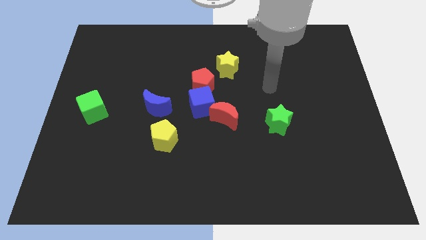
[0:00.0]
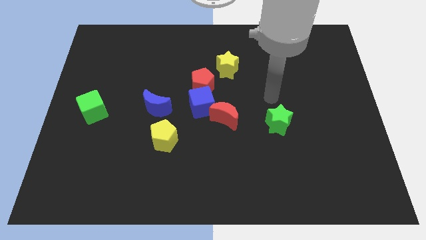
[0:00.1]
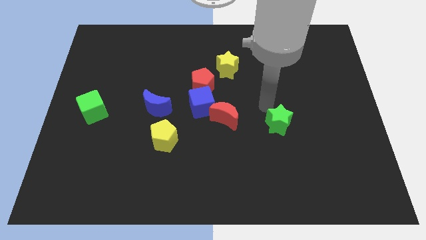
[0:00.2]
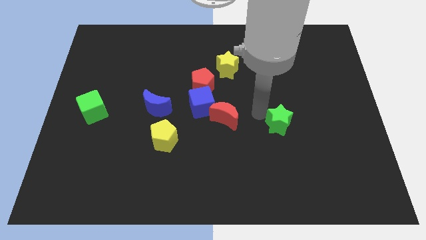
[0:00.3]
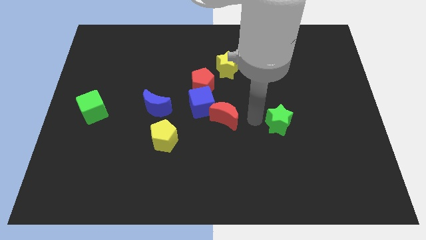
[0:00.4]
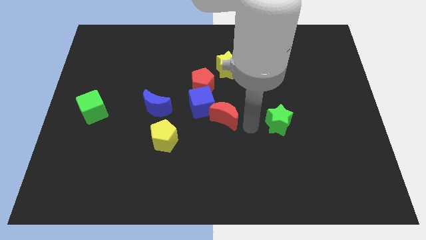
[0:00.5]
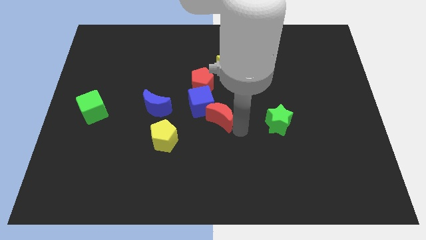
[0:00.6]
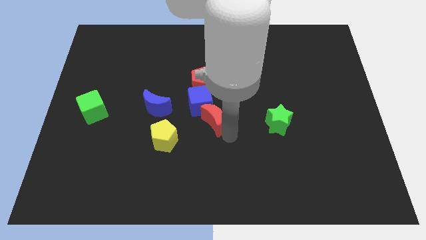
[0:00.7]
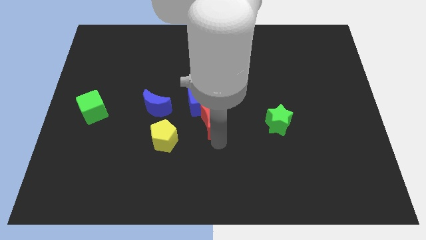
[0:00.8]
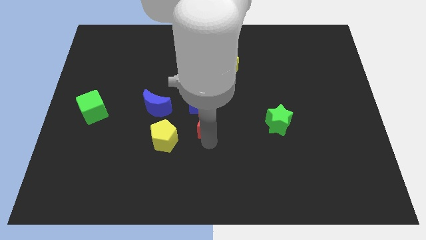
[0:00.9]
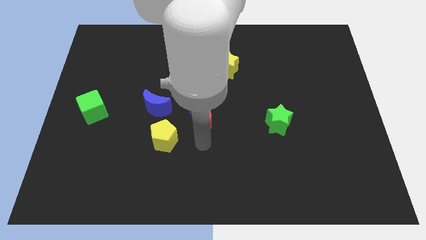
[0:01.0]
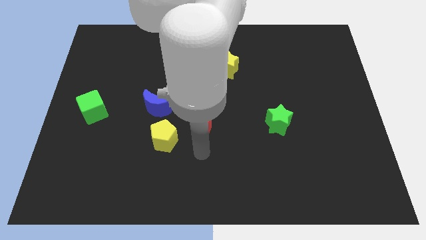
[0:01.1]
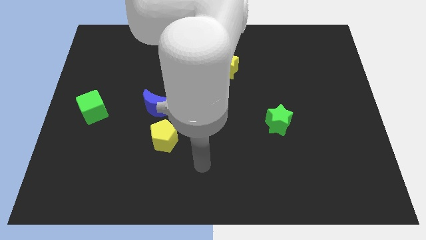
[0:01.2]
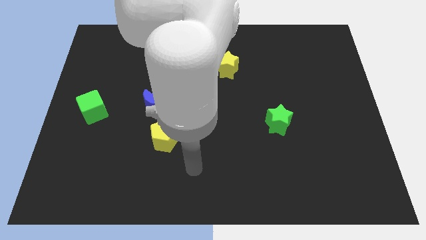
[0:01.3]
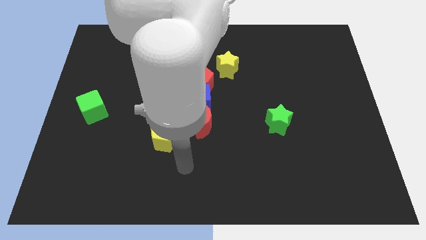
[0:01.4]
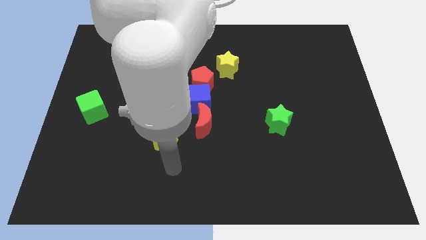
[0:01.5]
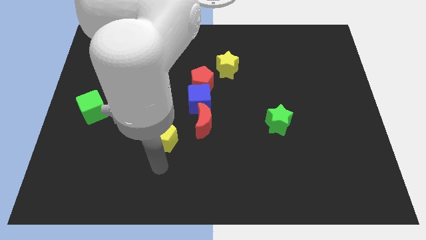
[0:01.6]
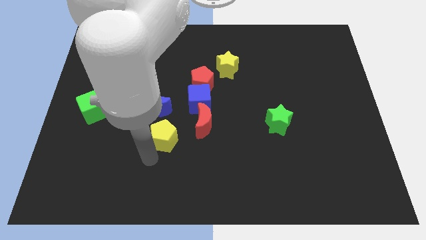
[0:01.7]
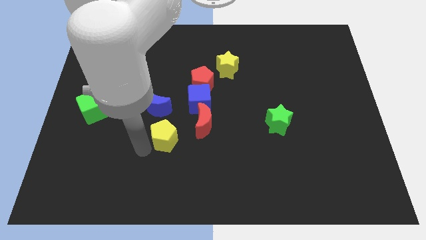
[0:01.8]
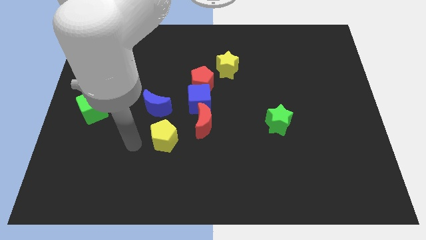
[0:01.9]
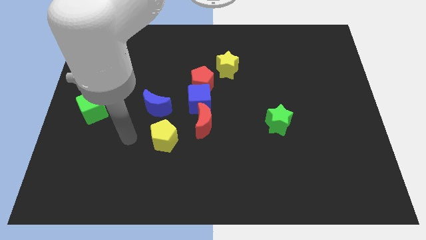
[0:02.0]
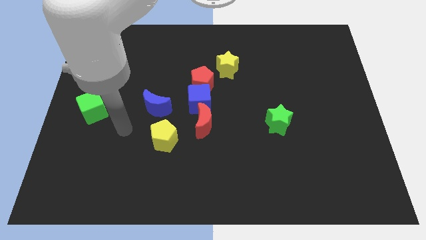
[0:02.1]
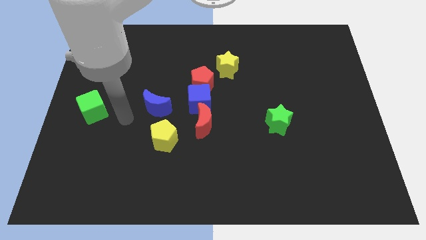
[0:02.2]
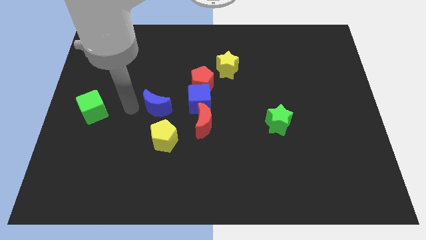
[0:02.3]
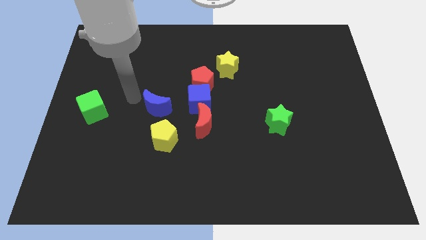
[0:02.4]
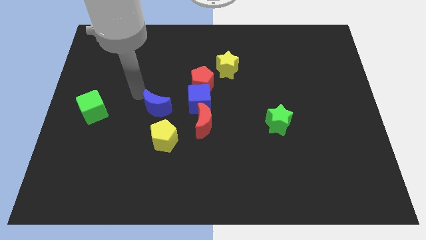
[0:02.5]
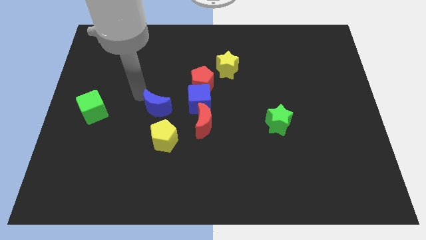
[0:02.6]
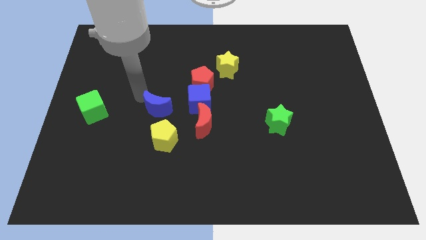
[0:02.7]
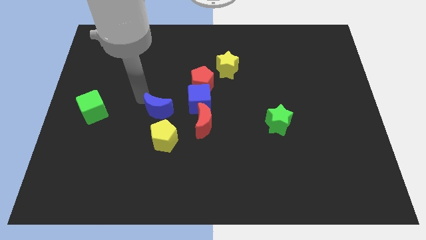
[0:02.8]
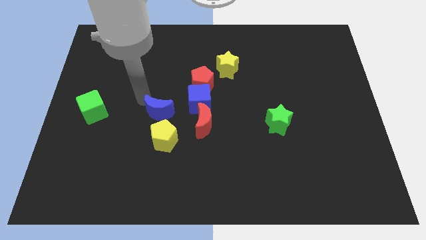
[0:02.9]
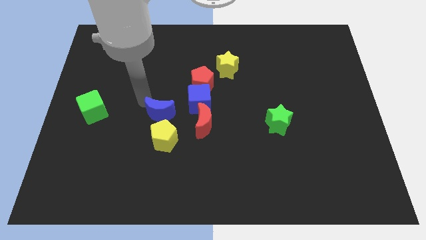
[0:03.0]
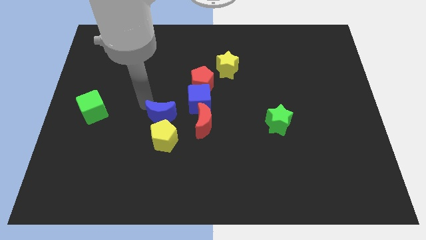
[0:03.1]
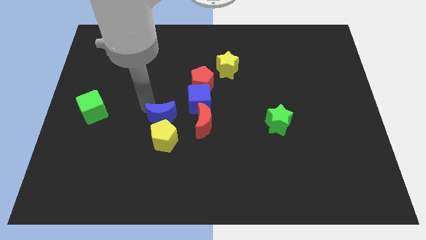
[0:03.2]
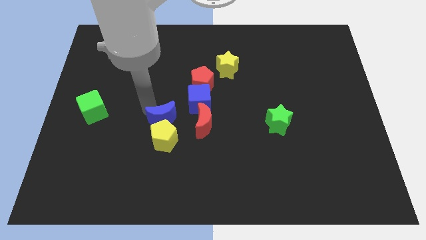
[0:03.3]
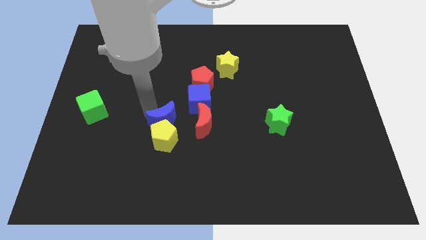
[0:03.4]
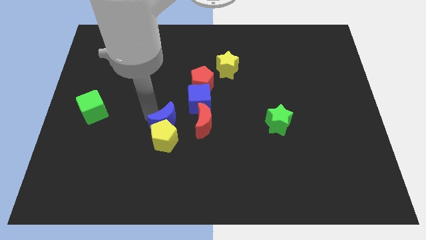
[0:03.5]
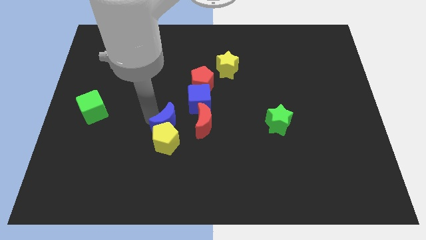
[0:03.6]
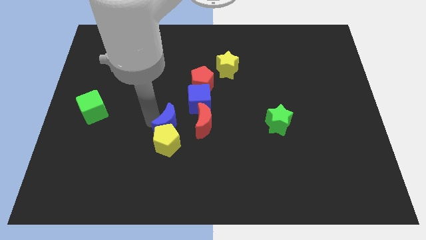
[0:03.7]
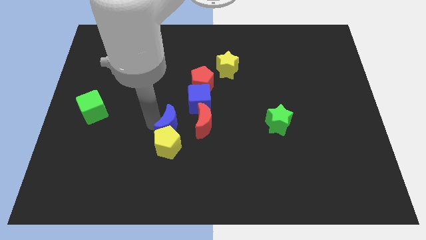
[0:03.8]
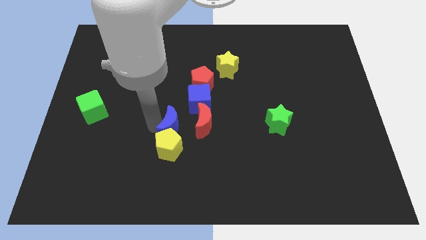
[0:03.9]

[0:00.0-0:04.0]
push the blue moon down and right a little bit

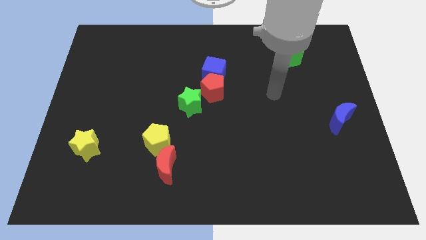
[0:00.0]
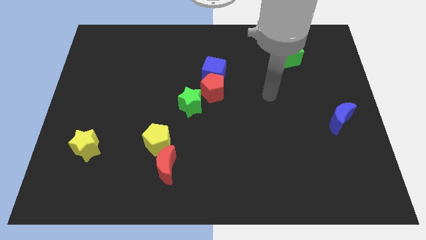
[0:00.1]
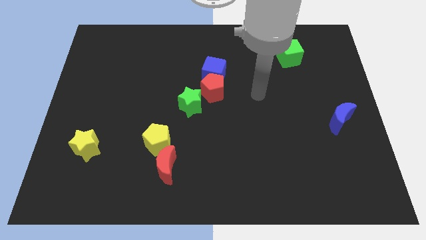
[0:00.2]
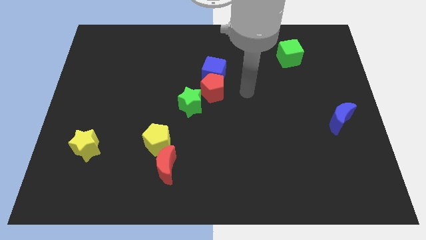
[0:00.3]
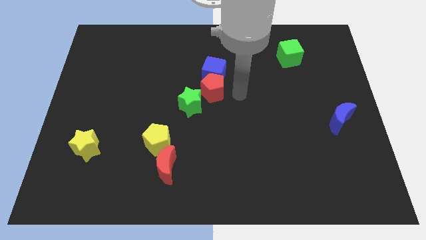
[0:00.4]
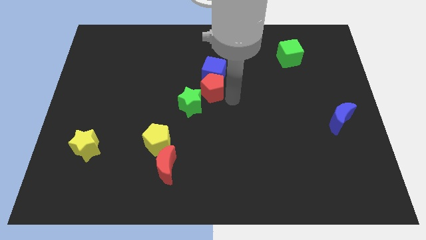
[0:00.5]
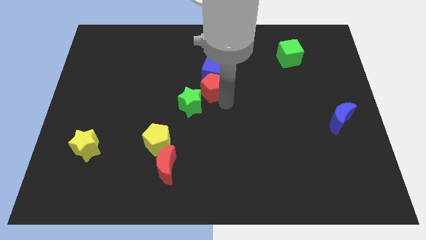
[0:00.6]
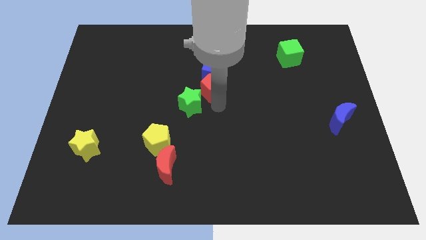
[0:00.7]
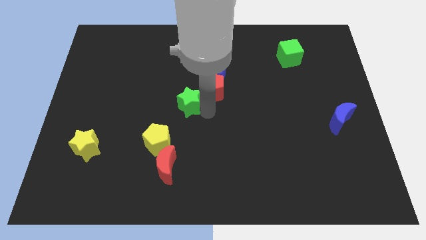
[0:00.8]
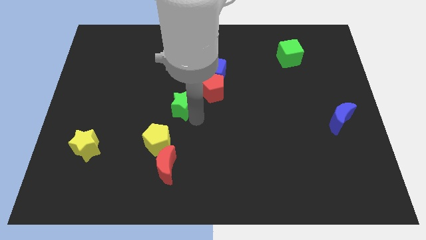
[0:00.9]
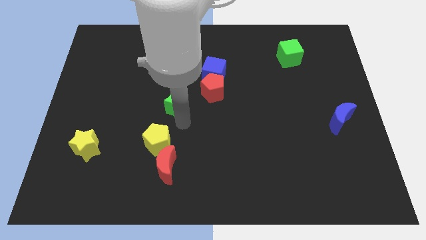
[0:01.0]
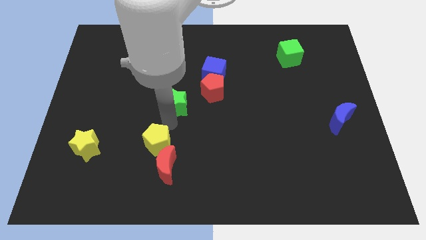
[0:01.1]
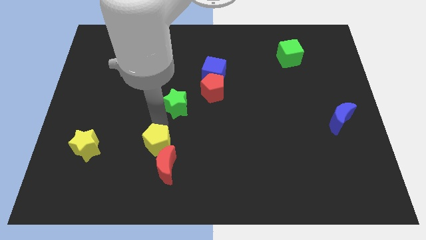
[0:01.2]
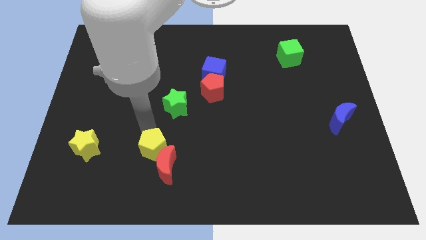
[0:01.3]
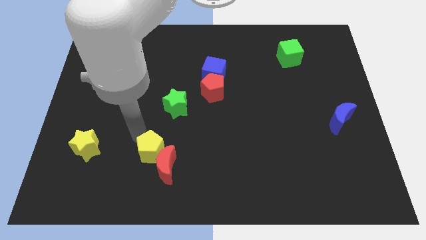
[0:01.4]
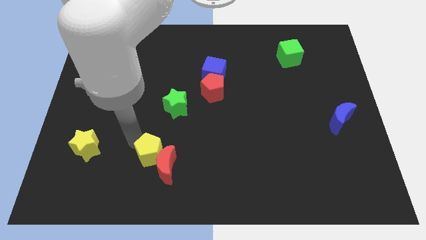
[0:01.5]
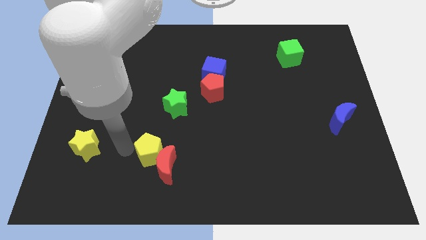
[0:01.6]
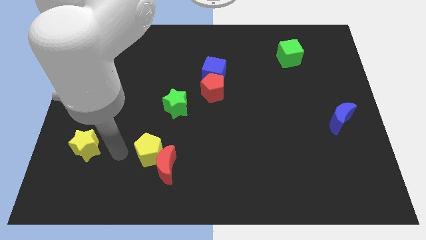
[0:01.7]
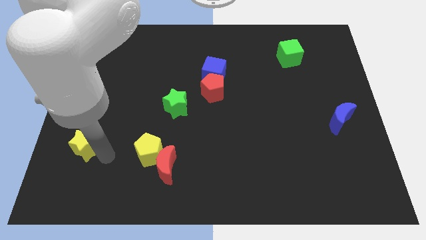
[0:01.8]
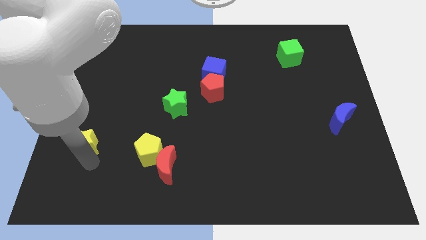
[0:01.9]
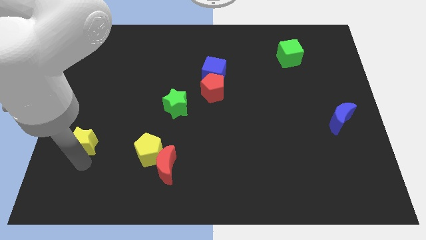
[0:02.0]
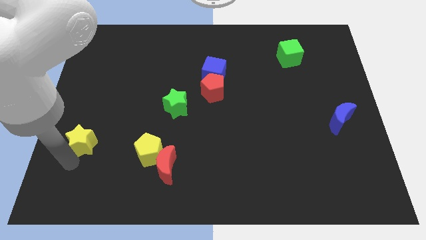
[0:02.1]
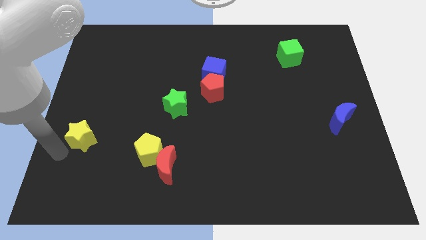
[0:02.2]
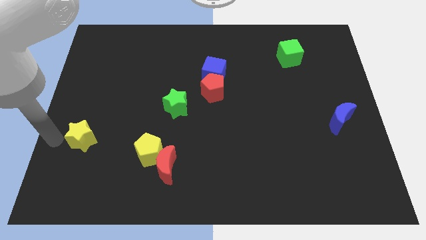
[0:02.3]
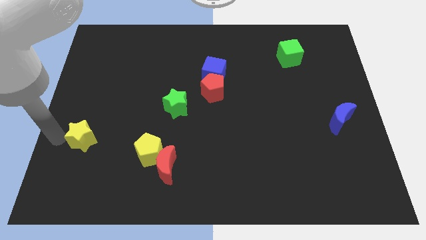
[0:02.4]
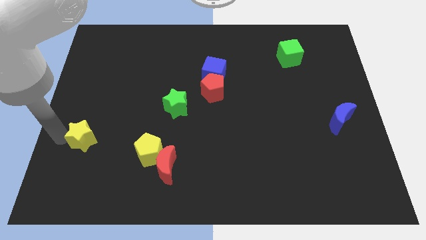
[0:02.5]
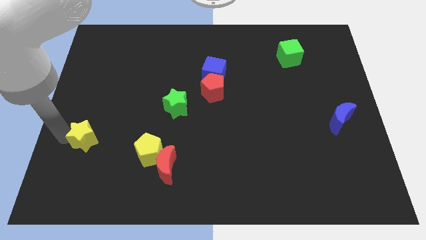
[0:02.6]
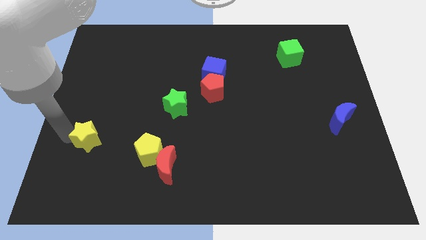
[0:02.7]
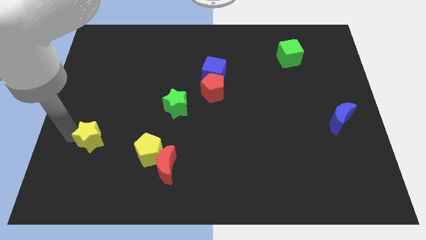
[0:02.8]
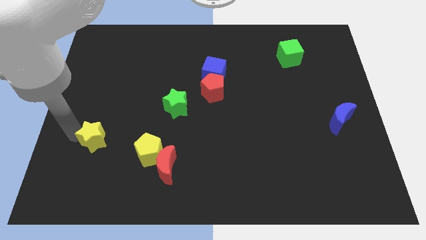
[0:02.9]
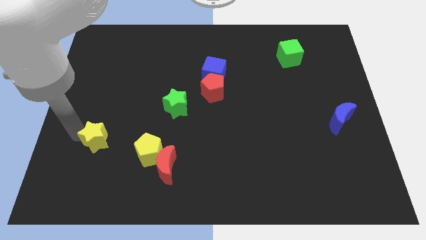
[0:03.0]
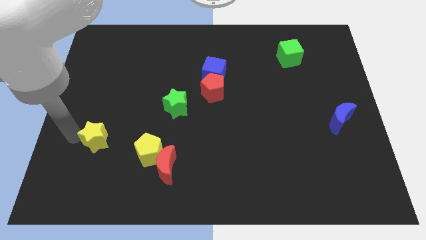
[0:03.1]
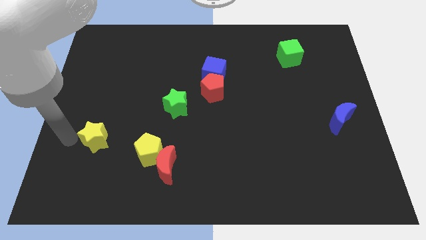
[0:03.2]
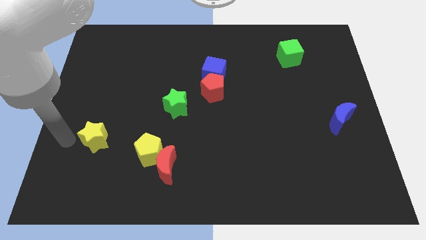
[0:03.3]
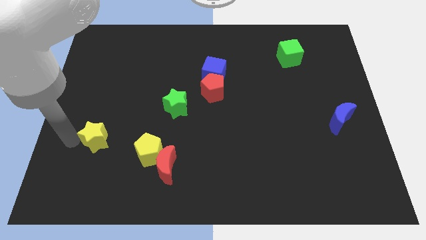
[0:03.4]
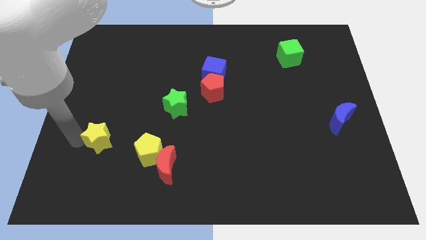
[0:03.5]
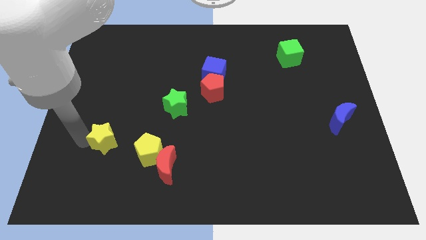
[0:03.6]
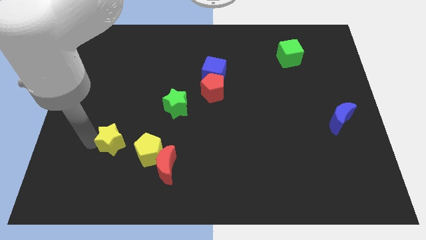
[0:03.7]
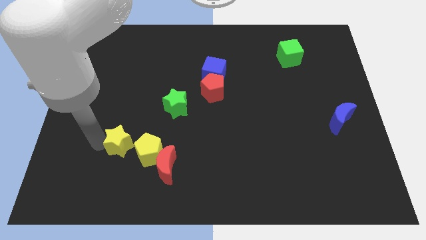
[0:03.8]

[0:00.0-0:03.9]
slightly move the yellow star to the right

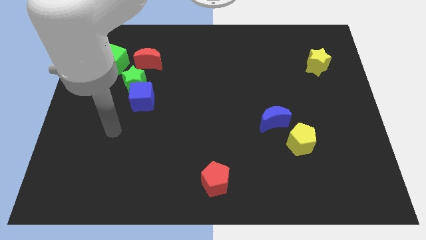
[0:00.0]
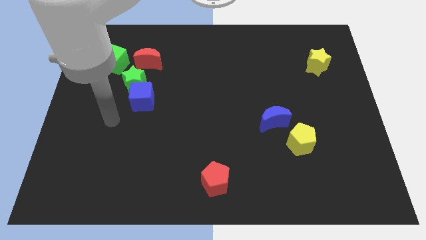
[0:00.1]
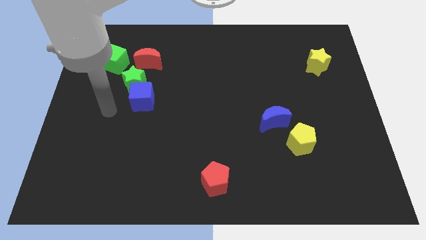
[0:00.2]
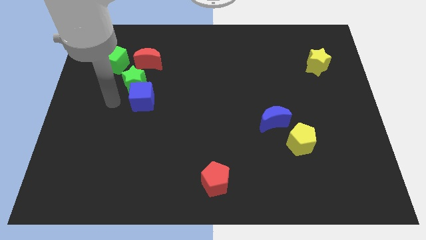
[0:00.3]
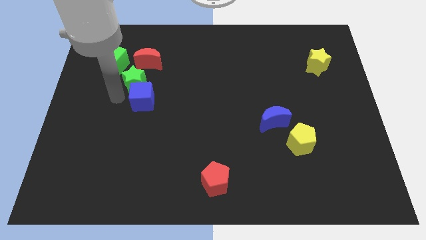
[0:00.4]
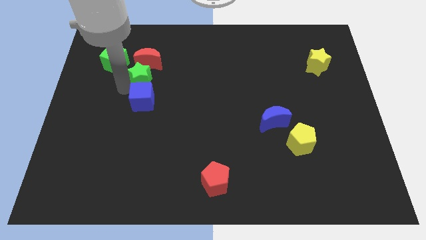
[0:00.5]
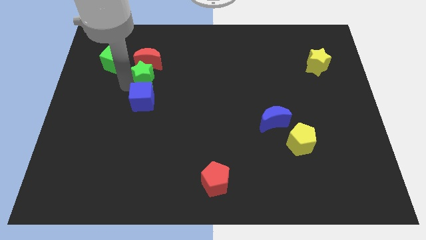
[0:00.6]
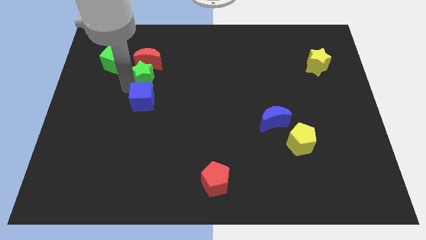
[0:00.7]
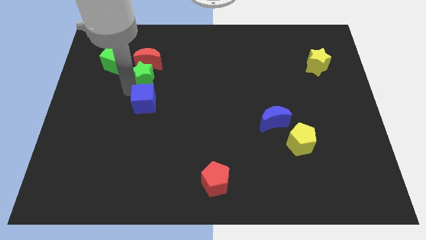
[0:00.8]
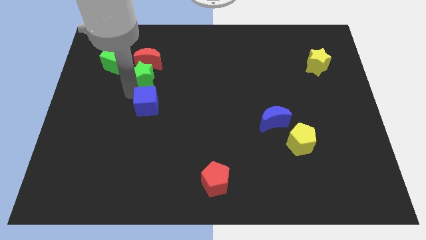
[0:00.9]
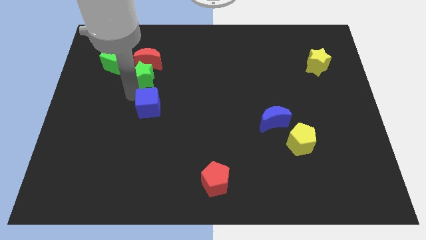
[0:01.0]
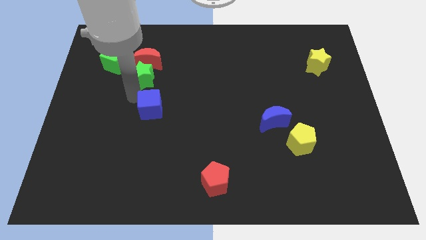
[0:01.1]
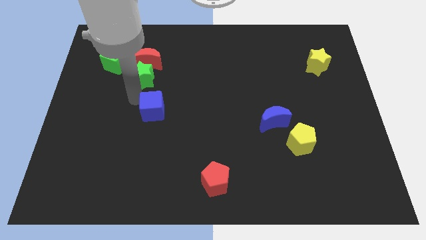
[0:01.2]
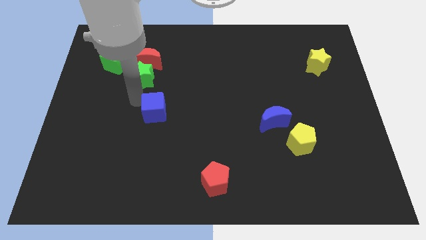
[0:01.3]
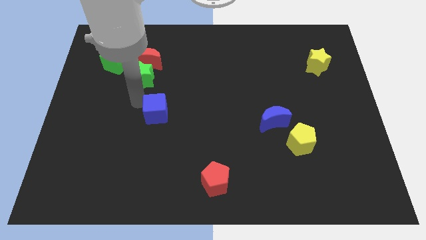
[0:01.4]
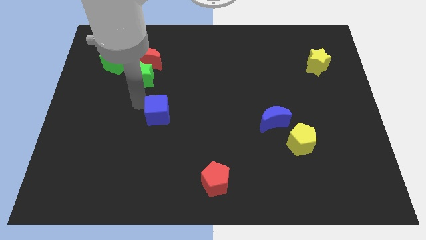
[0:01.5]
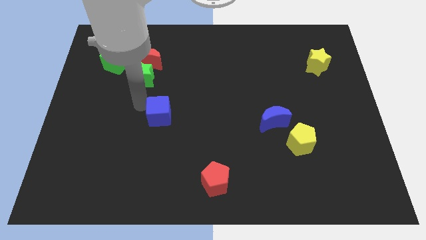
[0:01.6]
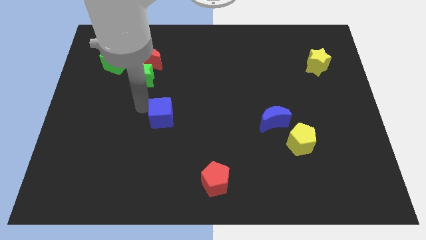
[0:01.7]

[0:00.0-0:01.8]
slightly push the blue cube down and to the right diagonally
